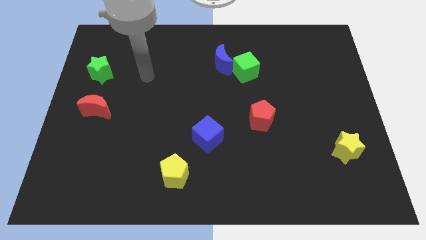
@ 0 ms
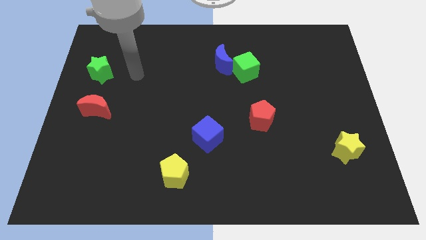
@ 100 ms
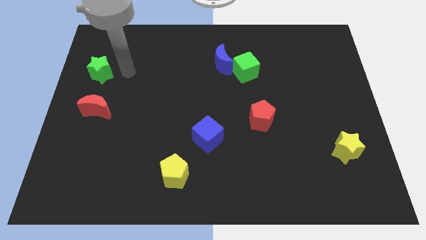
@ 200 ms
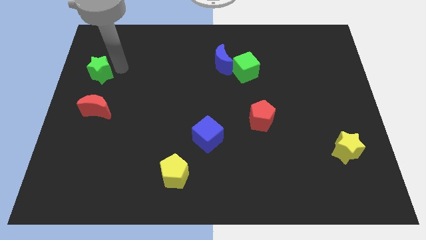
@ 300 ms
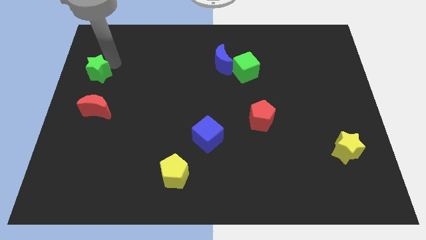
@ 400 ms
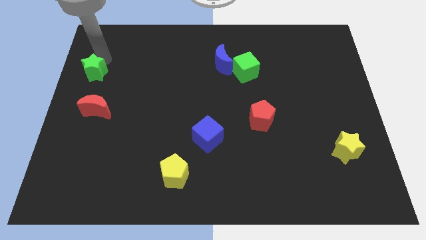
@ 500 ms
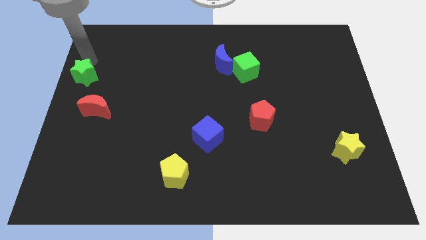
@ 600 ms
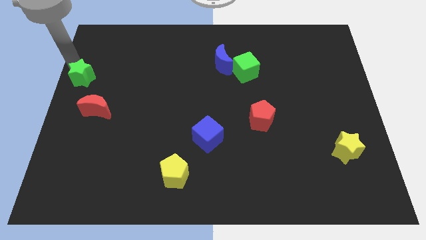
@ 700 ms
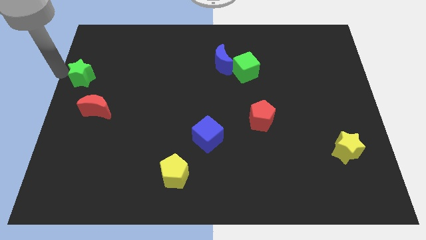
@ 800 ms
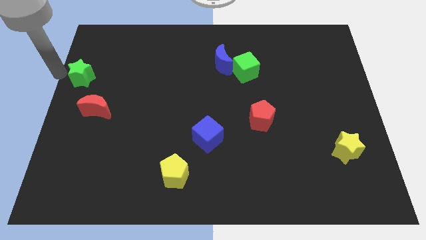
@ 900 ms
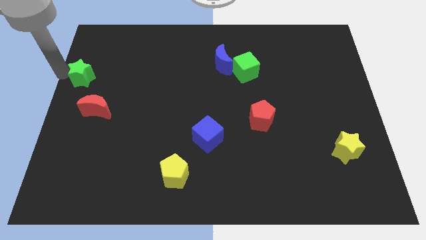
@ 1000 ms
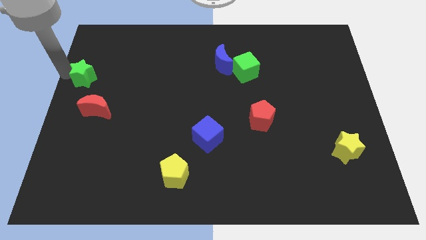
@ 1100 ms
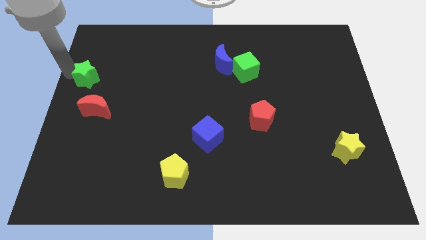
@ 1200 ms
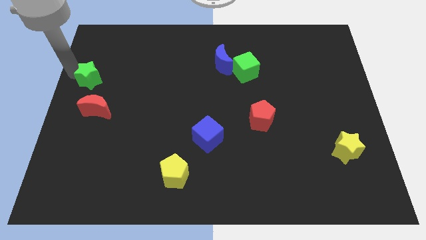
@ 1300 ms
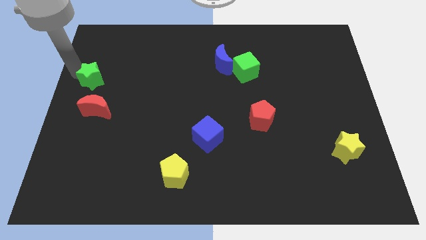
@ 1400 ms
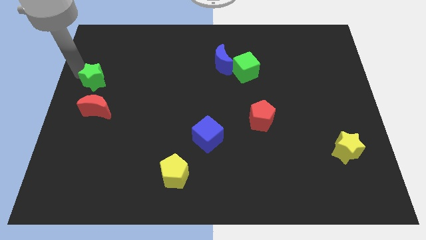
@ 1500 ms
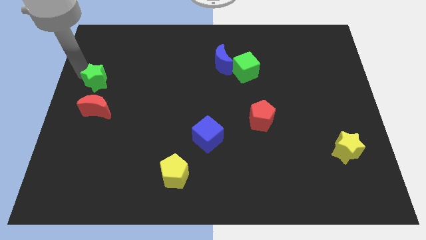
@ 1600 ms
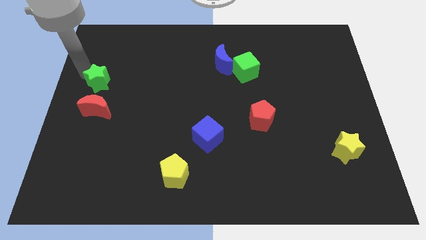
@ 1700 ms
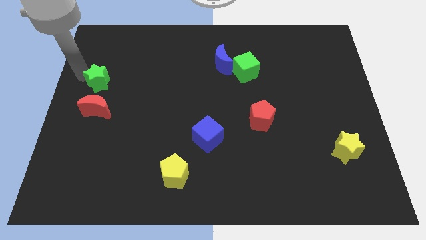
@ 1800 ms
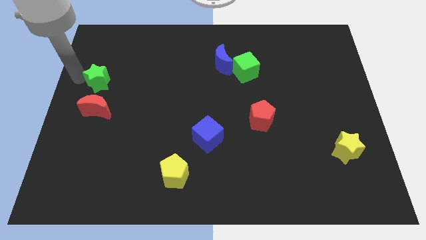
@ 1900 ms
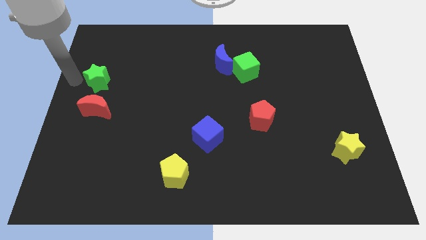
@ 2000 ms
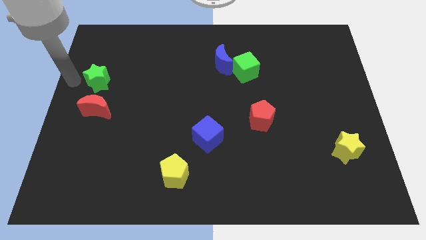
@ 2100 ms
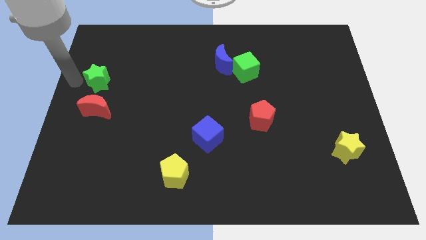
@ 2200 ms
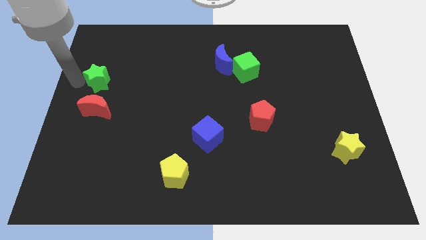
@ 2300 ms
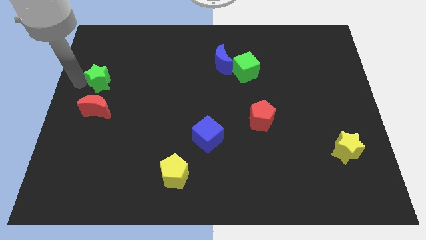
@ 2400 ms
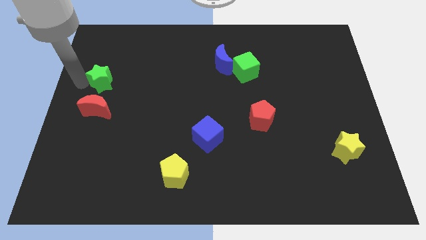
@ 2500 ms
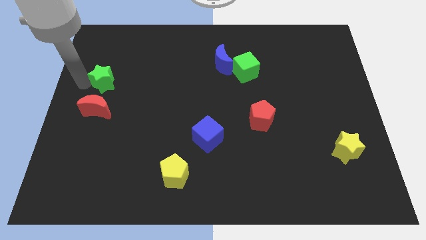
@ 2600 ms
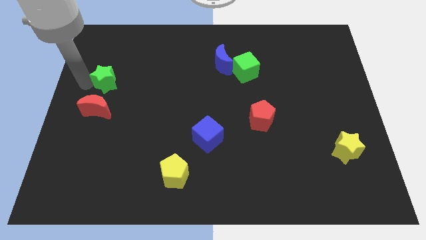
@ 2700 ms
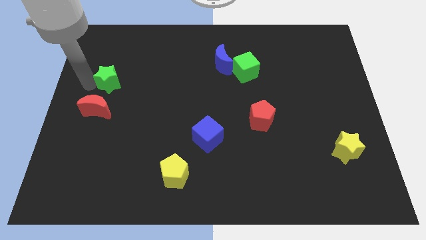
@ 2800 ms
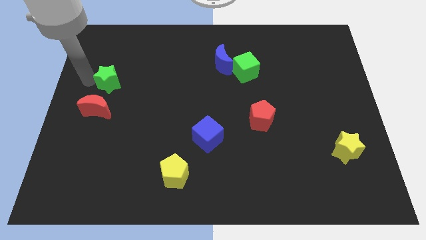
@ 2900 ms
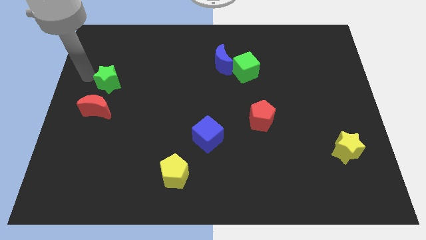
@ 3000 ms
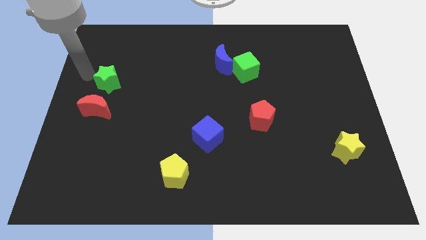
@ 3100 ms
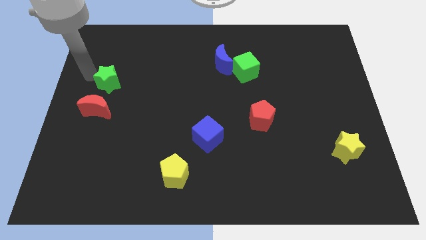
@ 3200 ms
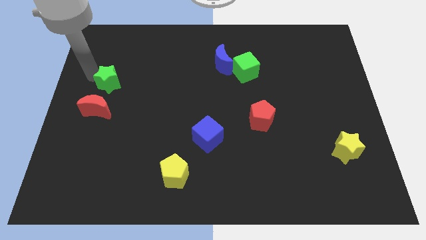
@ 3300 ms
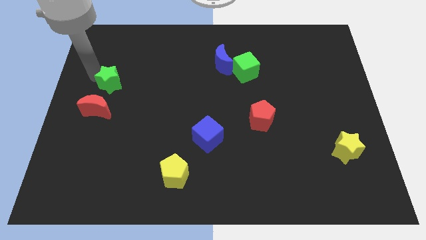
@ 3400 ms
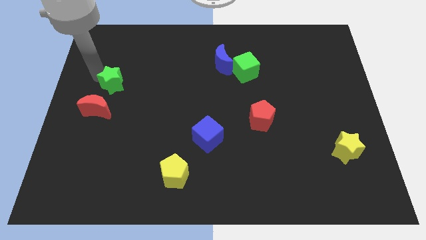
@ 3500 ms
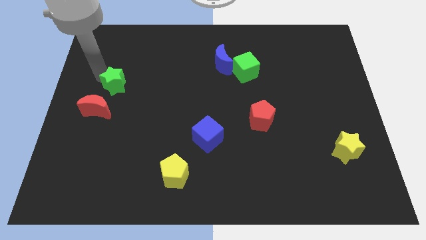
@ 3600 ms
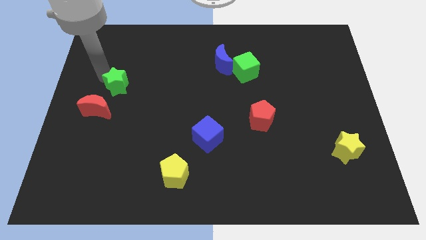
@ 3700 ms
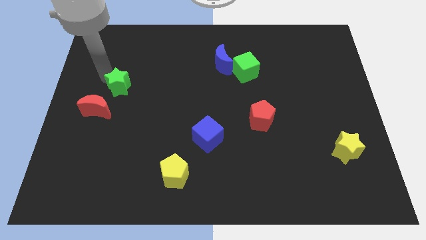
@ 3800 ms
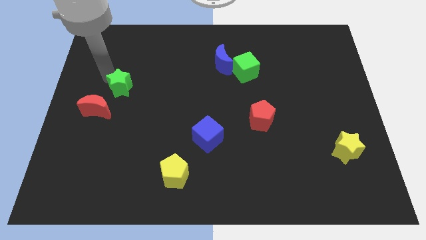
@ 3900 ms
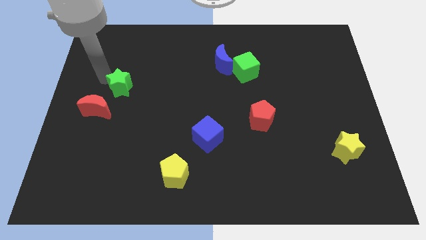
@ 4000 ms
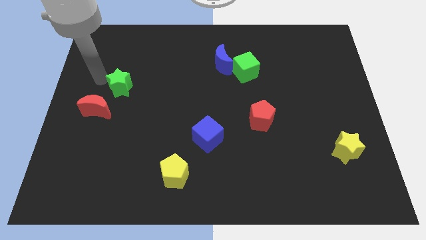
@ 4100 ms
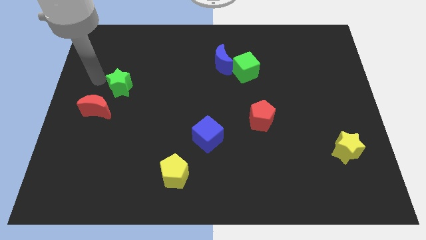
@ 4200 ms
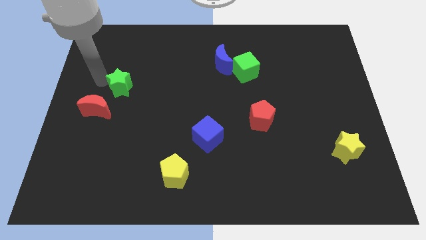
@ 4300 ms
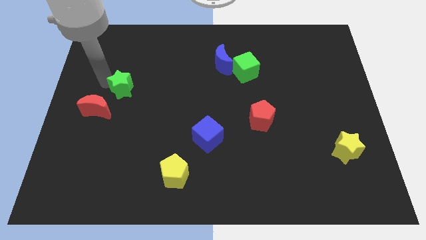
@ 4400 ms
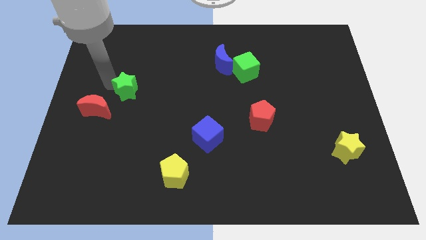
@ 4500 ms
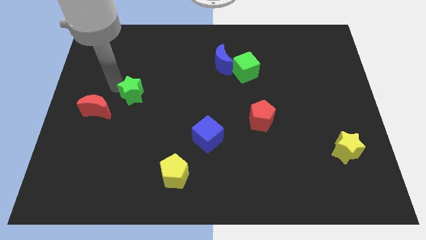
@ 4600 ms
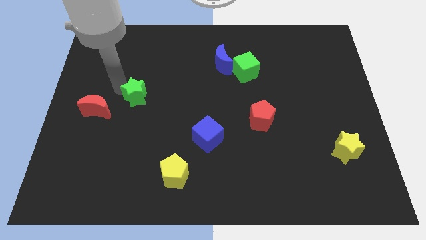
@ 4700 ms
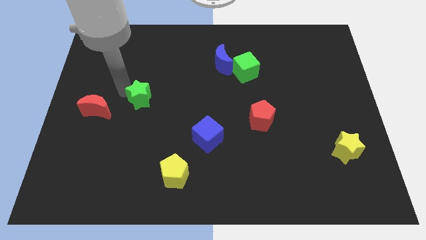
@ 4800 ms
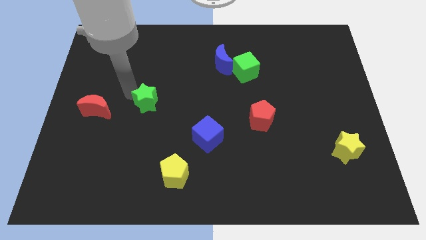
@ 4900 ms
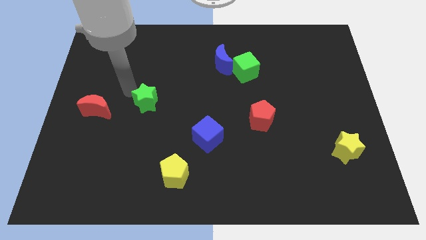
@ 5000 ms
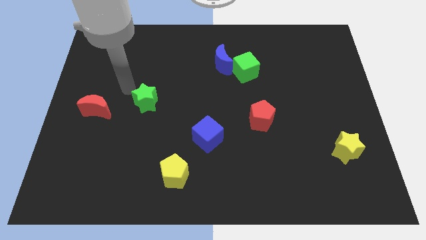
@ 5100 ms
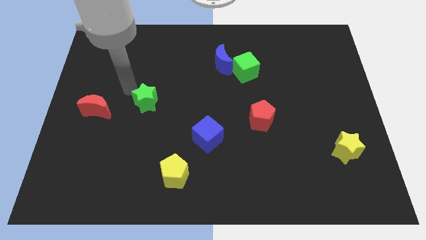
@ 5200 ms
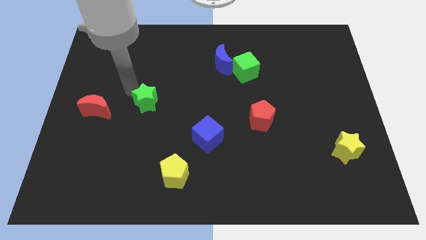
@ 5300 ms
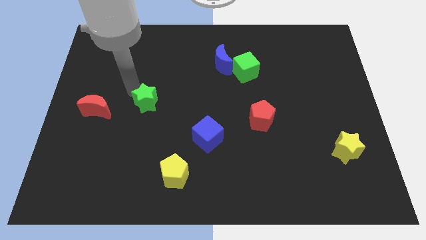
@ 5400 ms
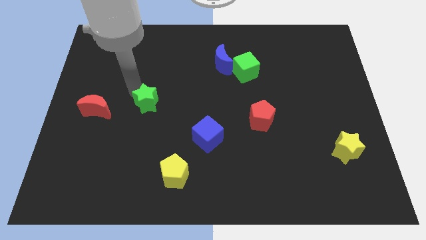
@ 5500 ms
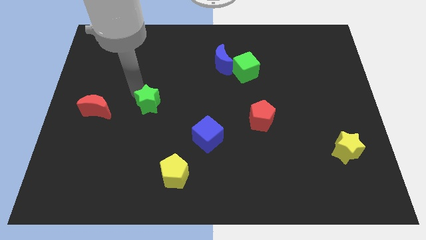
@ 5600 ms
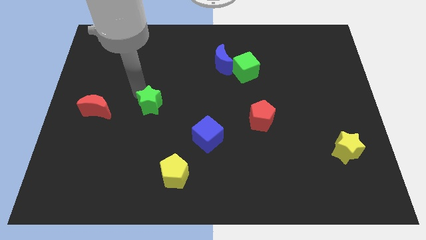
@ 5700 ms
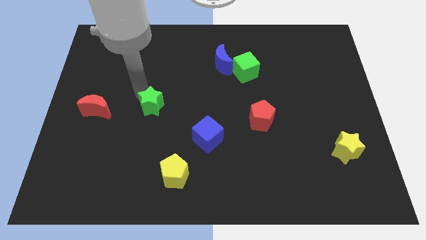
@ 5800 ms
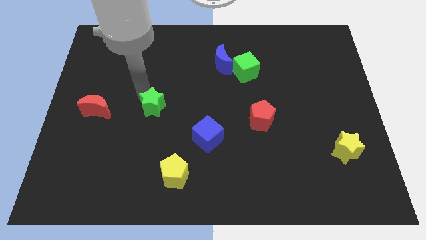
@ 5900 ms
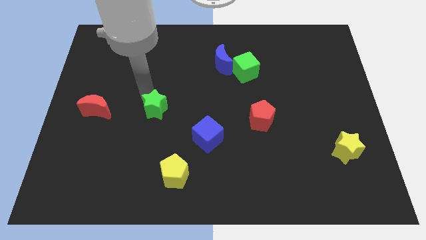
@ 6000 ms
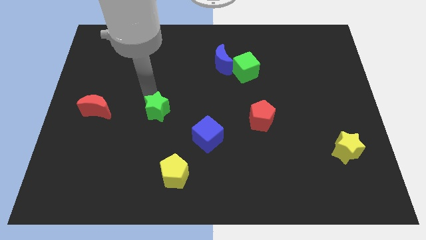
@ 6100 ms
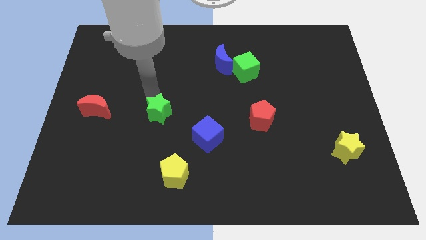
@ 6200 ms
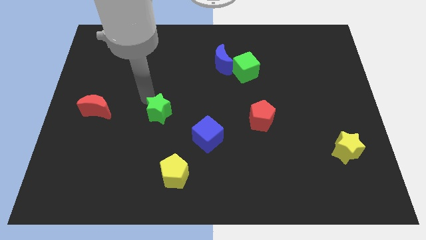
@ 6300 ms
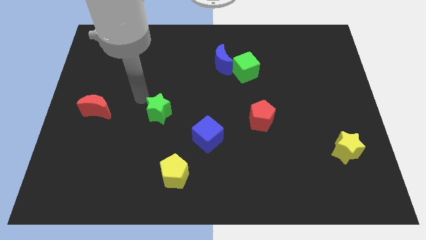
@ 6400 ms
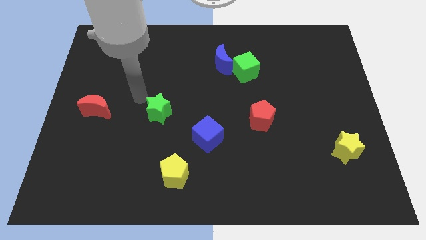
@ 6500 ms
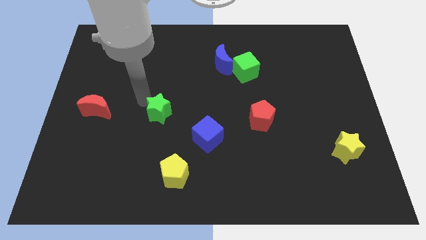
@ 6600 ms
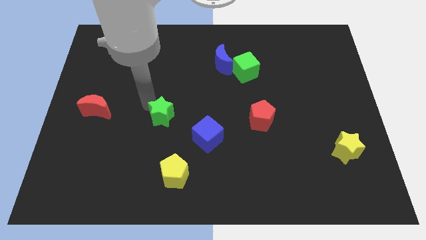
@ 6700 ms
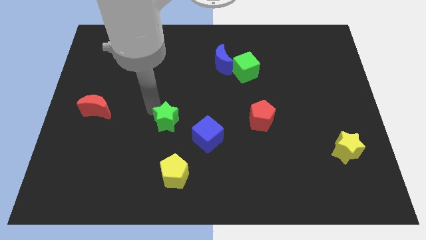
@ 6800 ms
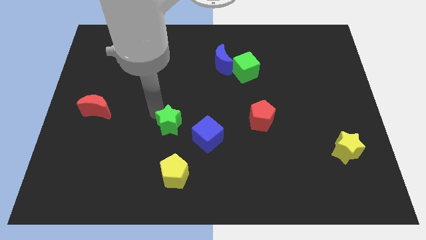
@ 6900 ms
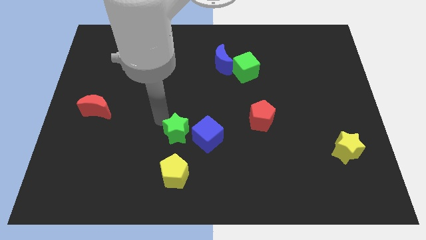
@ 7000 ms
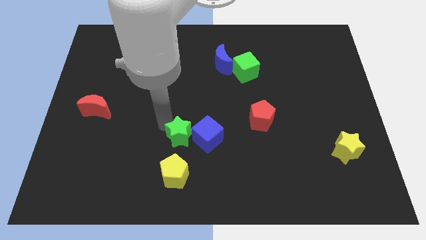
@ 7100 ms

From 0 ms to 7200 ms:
put the green star next to the blue cube

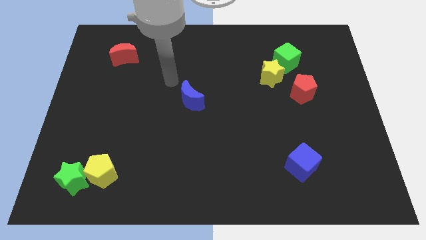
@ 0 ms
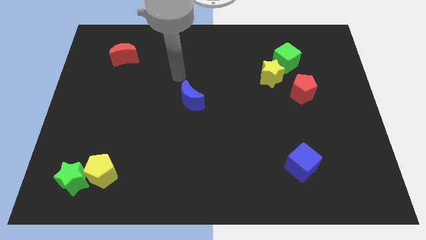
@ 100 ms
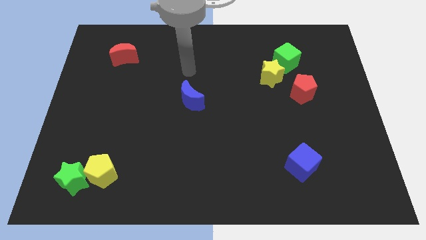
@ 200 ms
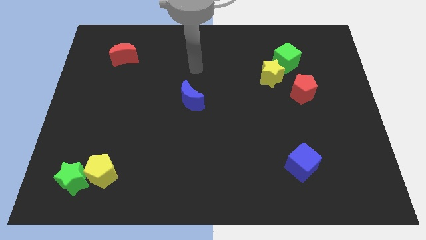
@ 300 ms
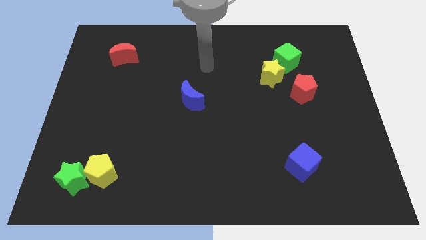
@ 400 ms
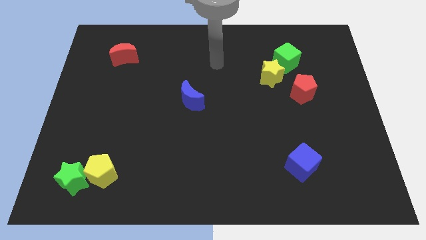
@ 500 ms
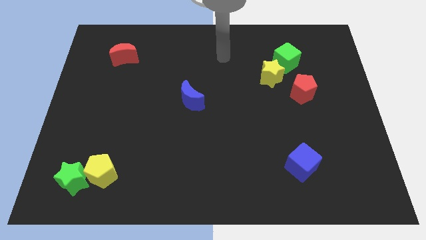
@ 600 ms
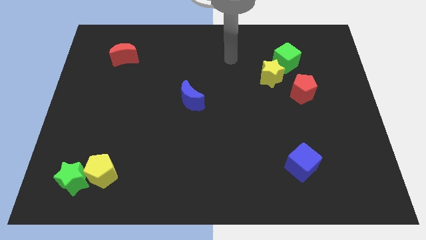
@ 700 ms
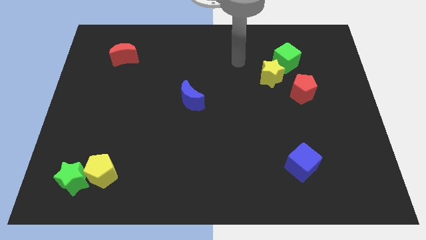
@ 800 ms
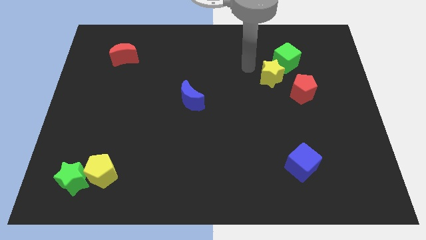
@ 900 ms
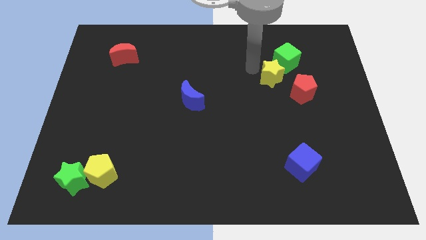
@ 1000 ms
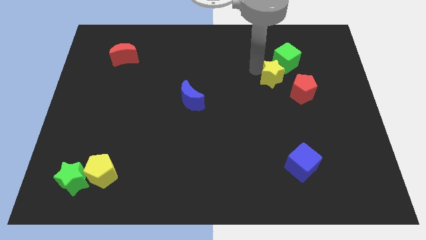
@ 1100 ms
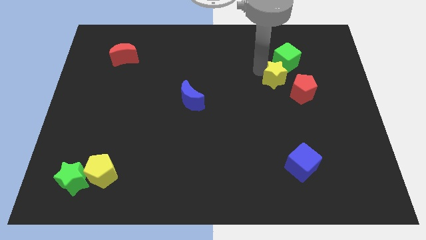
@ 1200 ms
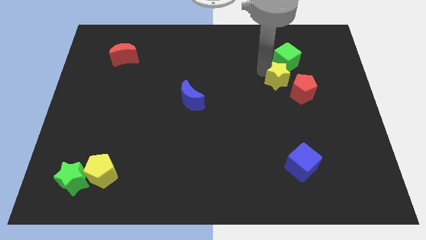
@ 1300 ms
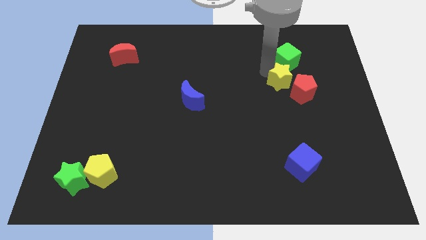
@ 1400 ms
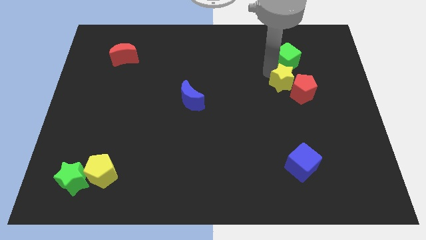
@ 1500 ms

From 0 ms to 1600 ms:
slide the yellow star close to the red pentagon
